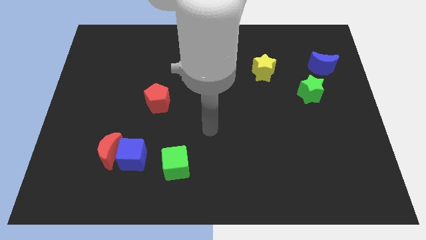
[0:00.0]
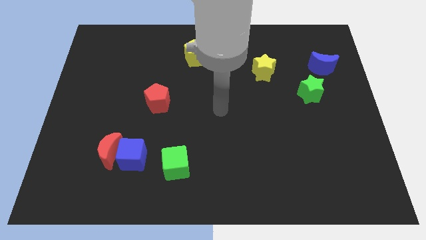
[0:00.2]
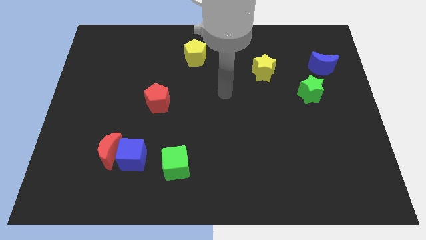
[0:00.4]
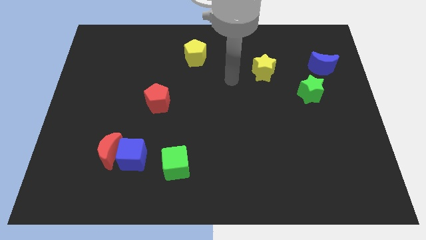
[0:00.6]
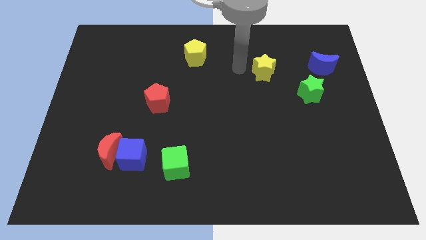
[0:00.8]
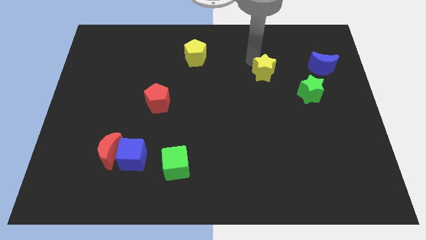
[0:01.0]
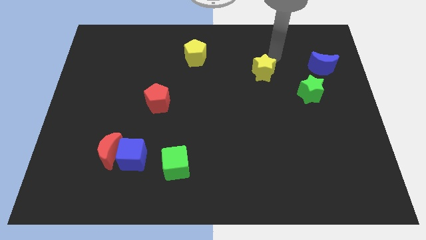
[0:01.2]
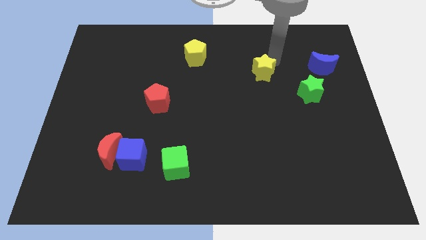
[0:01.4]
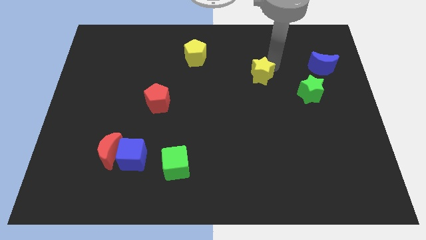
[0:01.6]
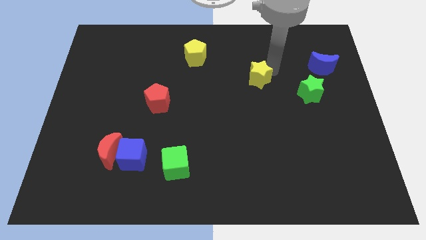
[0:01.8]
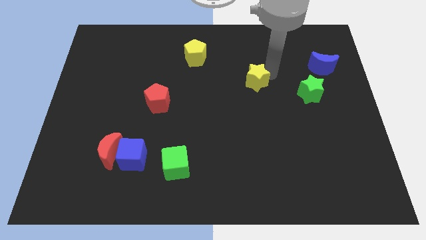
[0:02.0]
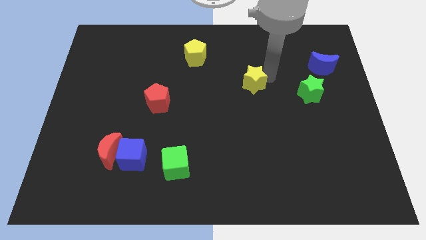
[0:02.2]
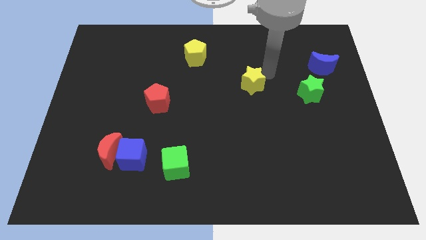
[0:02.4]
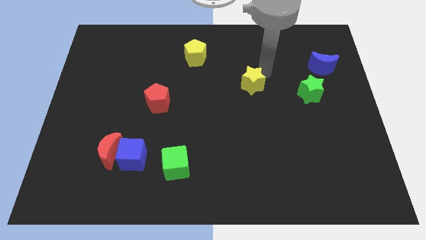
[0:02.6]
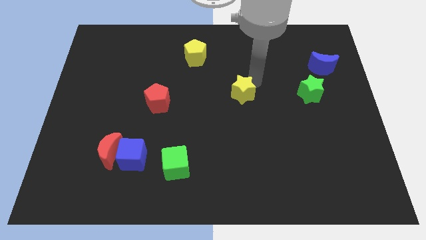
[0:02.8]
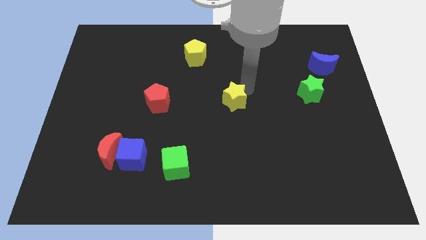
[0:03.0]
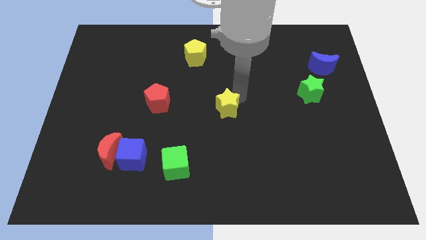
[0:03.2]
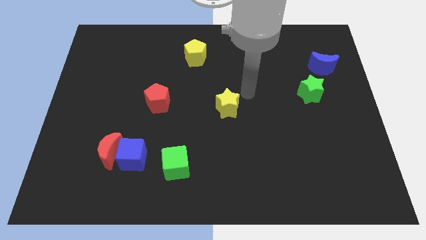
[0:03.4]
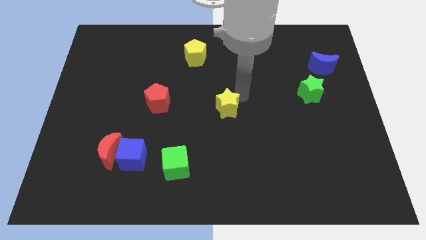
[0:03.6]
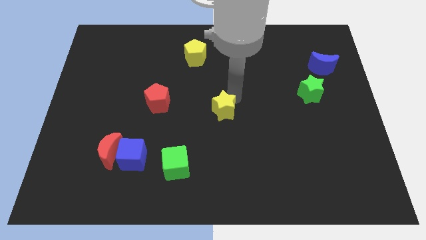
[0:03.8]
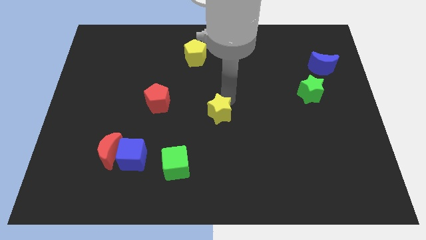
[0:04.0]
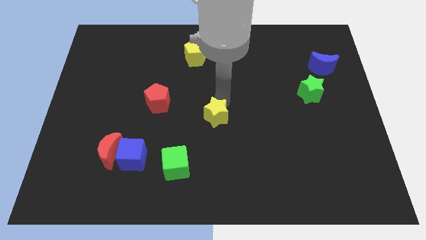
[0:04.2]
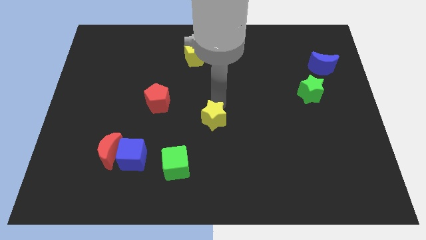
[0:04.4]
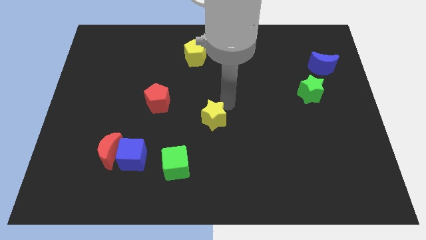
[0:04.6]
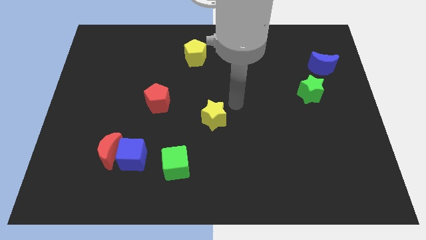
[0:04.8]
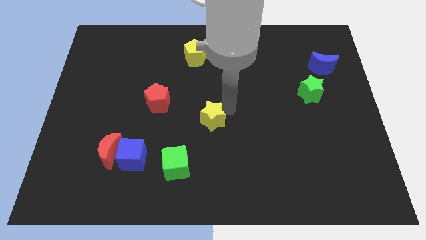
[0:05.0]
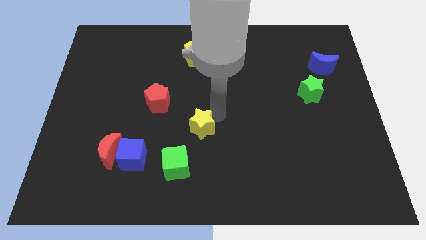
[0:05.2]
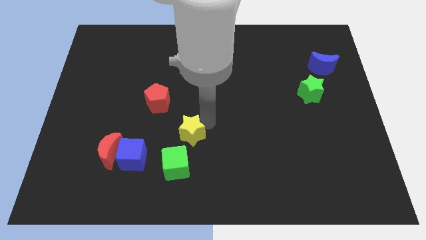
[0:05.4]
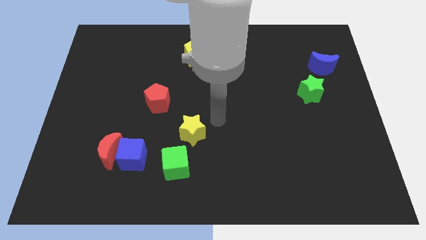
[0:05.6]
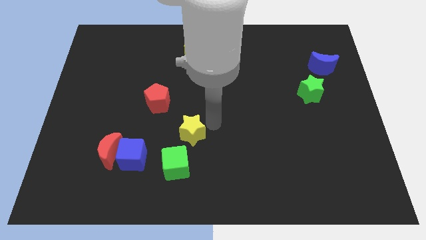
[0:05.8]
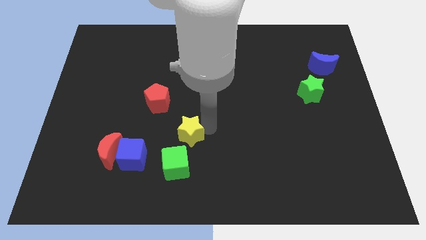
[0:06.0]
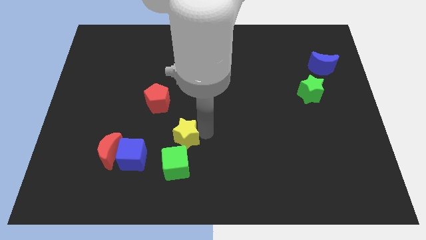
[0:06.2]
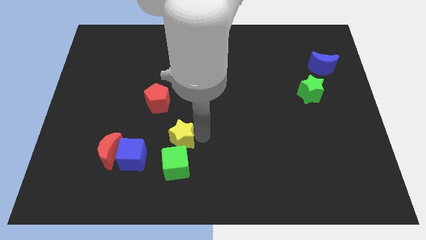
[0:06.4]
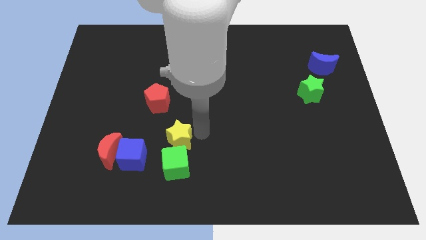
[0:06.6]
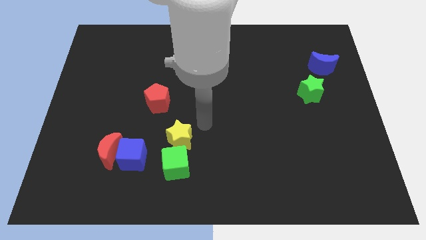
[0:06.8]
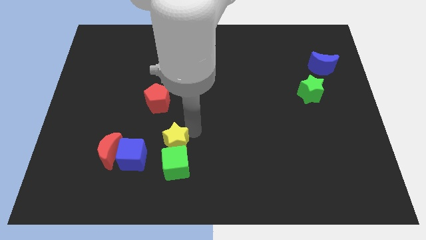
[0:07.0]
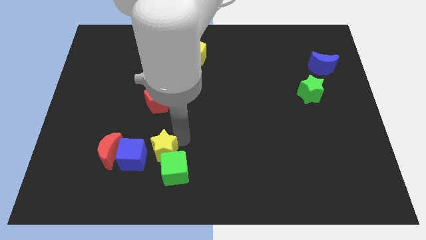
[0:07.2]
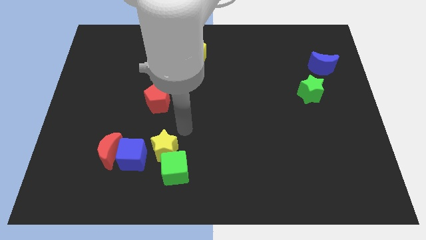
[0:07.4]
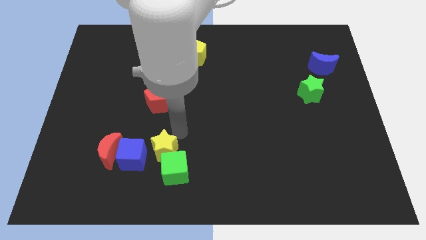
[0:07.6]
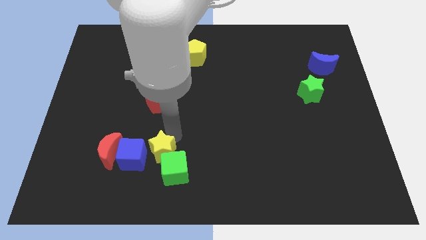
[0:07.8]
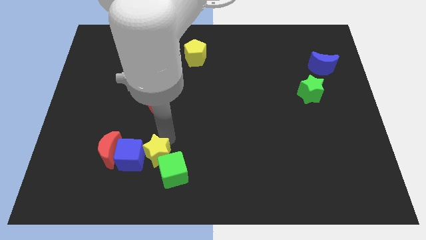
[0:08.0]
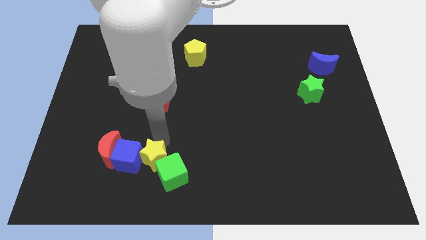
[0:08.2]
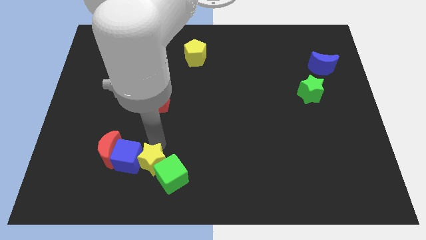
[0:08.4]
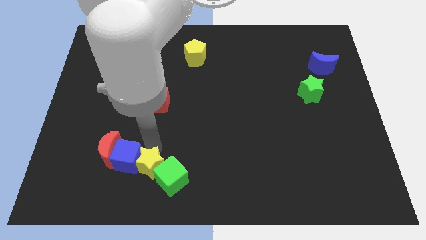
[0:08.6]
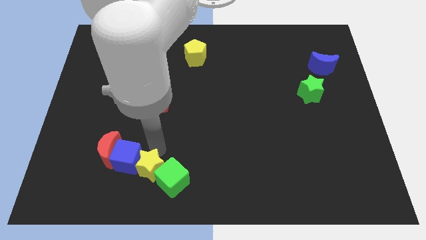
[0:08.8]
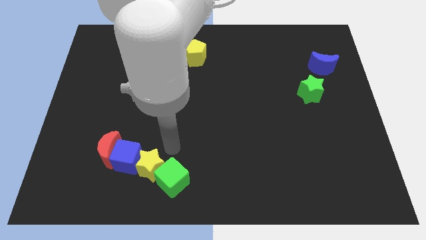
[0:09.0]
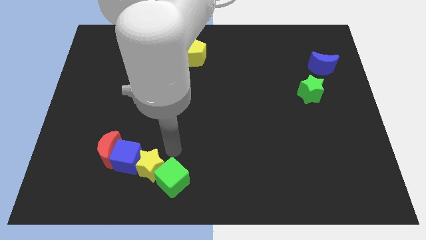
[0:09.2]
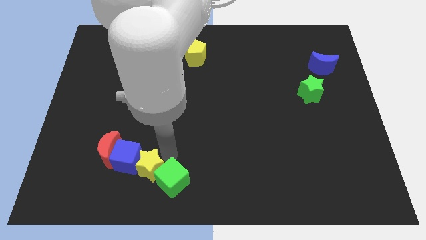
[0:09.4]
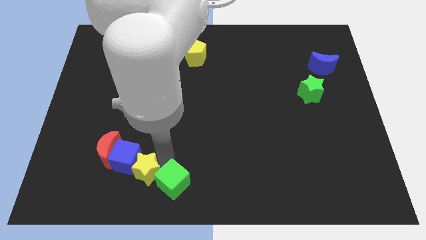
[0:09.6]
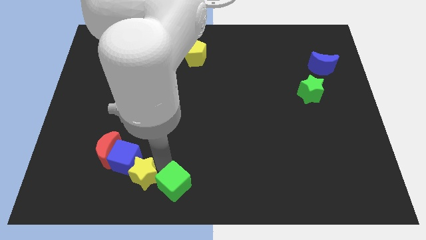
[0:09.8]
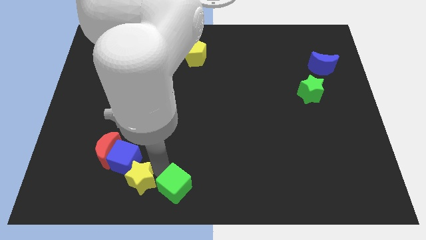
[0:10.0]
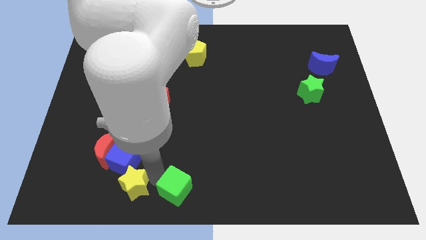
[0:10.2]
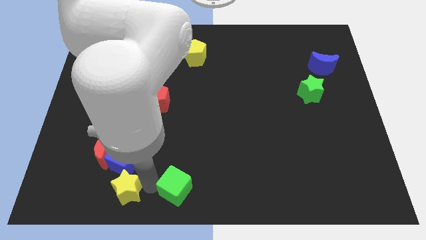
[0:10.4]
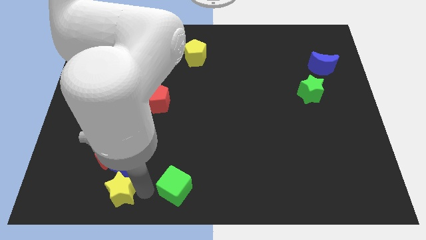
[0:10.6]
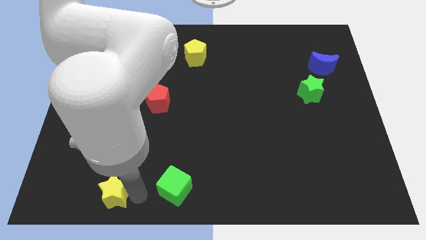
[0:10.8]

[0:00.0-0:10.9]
put the yellow star diagonally down and to the left of the blue cube

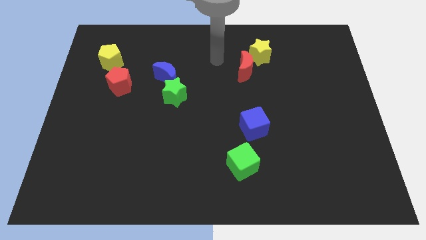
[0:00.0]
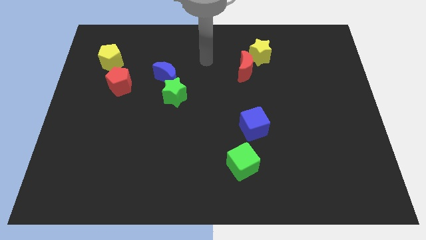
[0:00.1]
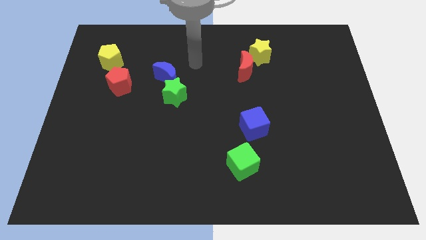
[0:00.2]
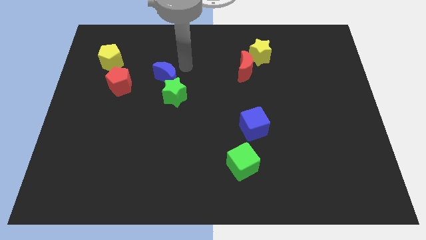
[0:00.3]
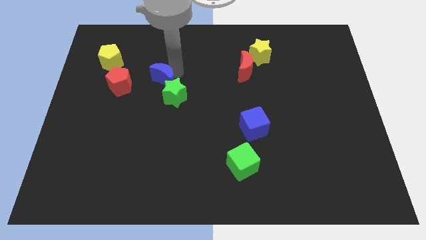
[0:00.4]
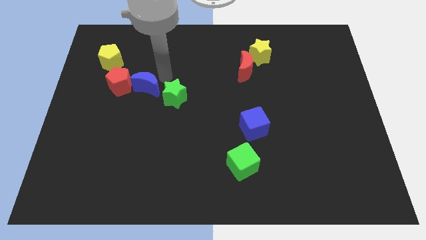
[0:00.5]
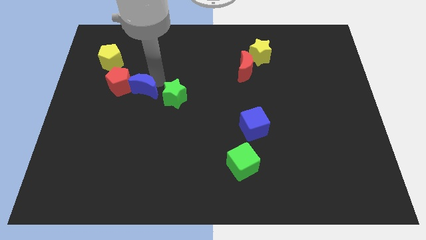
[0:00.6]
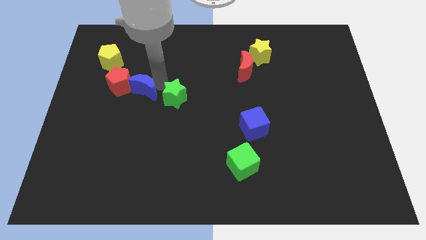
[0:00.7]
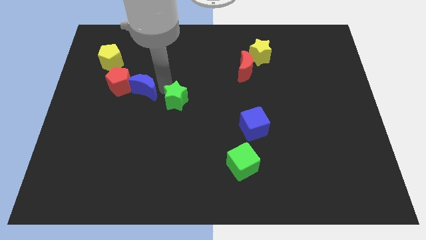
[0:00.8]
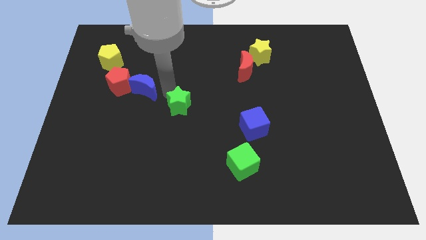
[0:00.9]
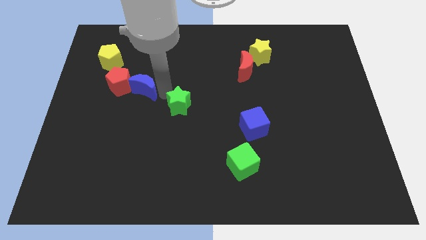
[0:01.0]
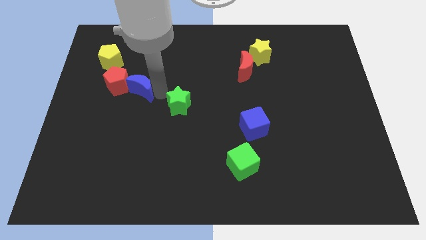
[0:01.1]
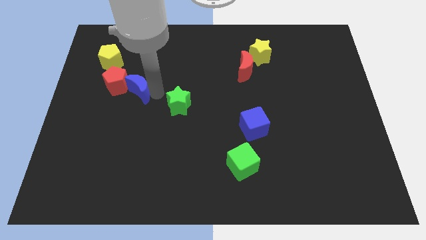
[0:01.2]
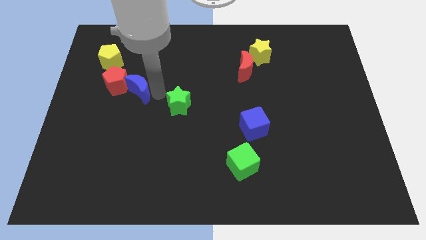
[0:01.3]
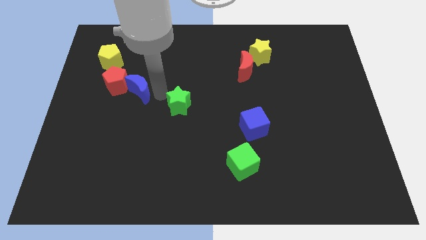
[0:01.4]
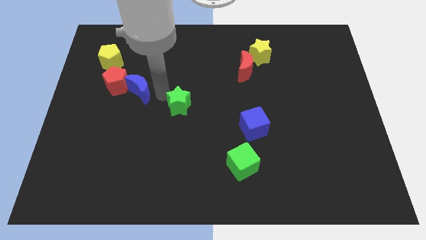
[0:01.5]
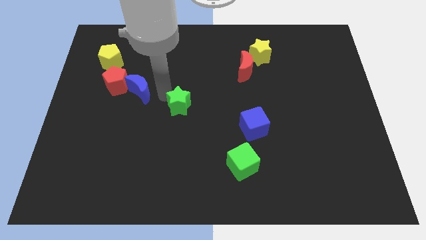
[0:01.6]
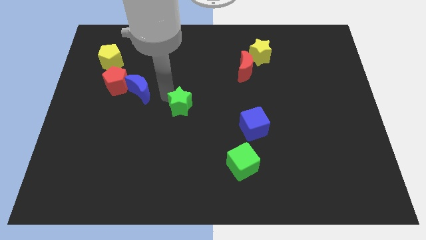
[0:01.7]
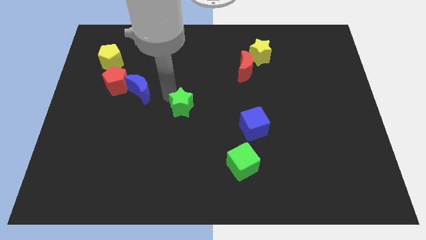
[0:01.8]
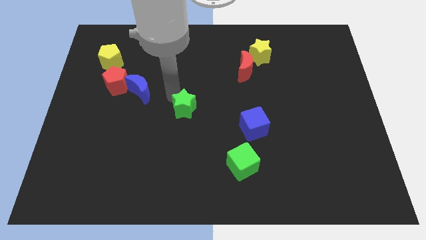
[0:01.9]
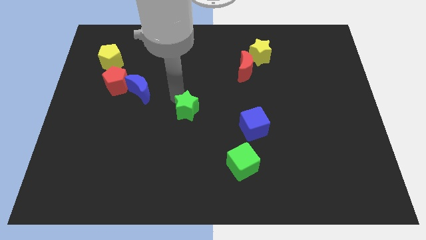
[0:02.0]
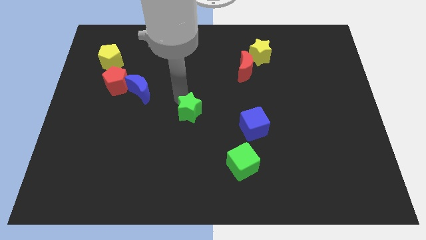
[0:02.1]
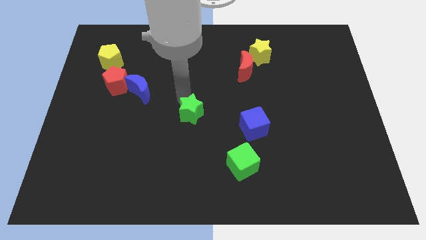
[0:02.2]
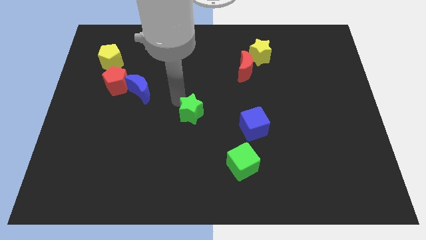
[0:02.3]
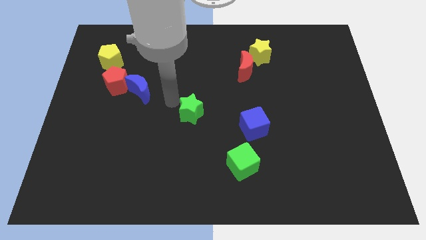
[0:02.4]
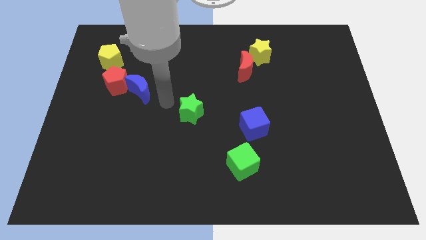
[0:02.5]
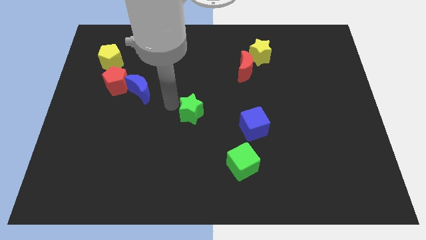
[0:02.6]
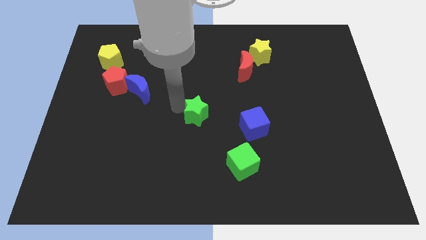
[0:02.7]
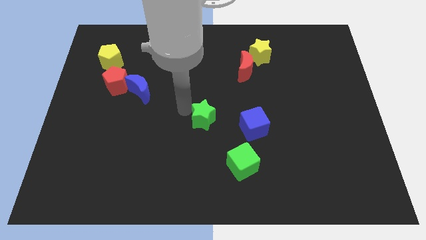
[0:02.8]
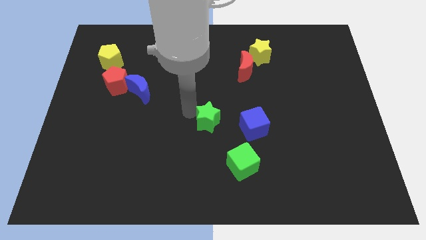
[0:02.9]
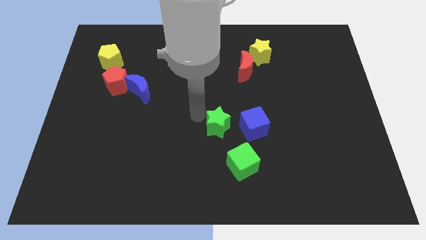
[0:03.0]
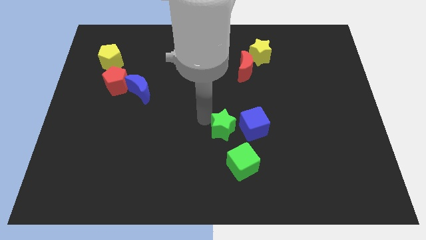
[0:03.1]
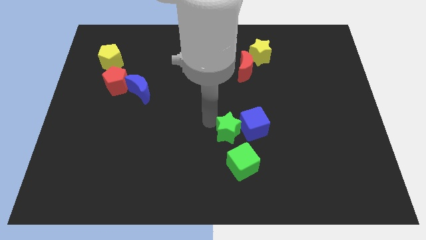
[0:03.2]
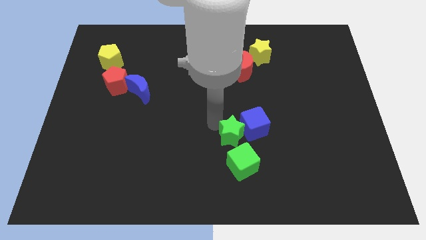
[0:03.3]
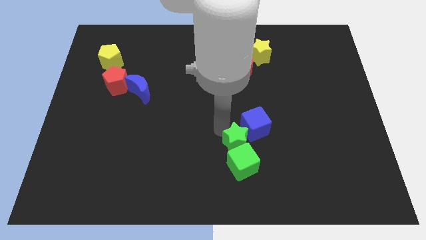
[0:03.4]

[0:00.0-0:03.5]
move the green star to the top right of the green cube
